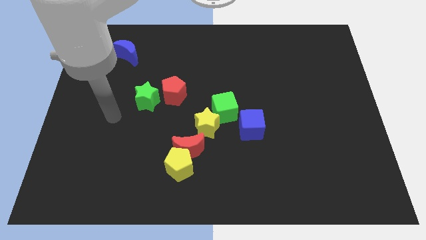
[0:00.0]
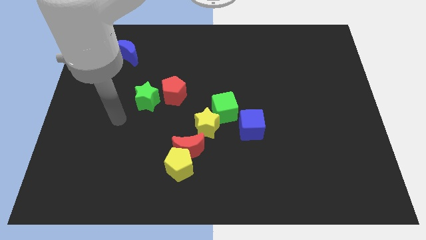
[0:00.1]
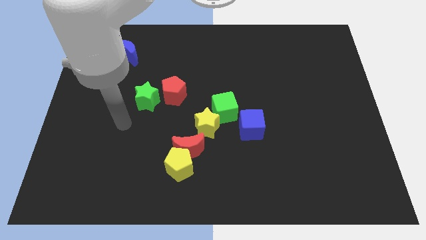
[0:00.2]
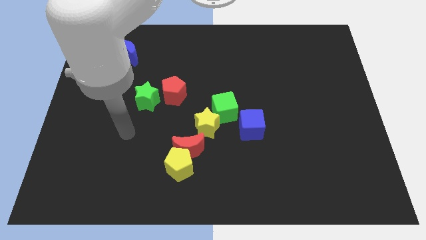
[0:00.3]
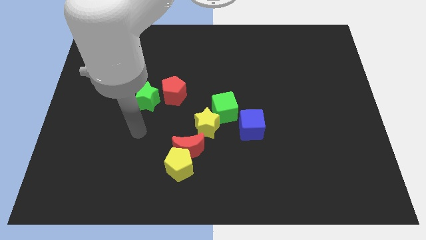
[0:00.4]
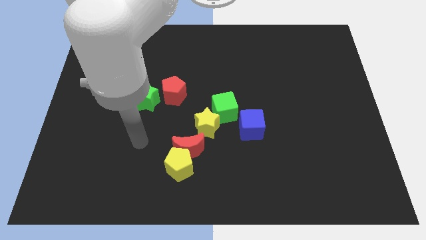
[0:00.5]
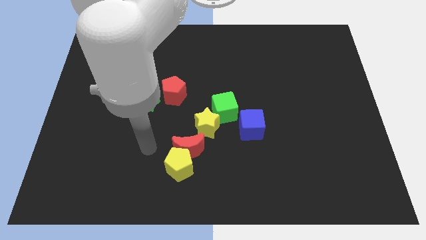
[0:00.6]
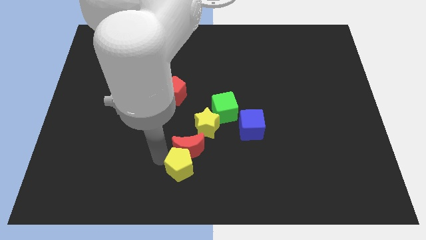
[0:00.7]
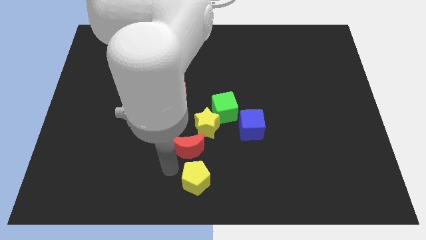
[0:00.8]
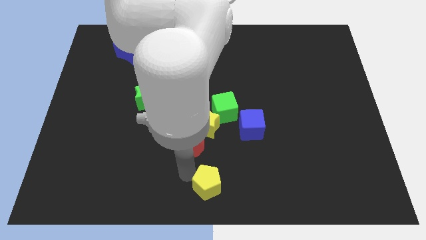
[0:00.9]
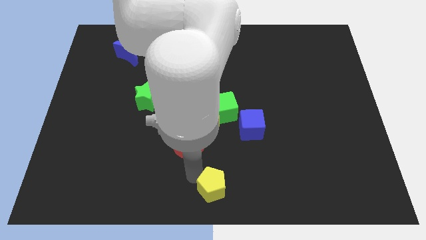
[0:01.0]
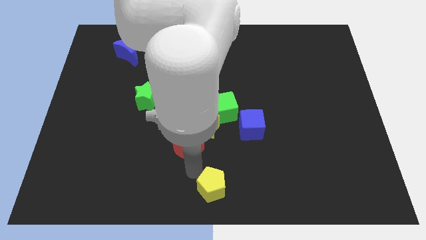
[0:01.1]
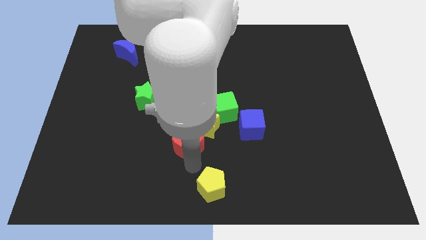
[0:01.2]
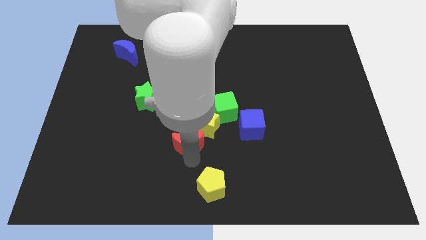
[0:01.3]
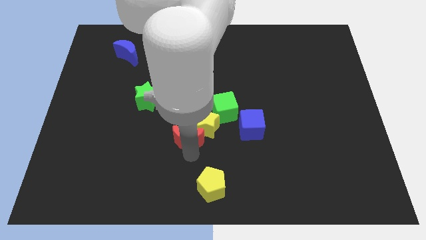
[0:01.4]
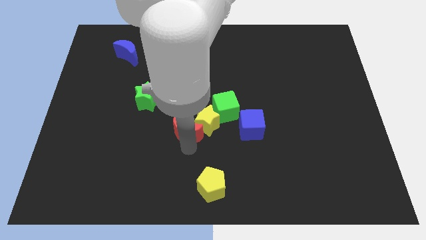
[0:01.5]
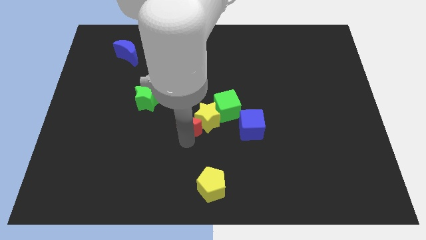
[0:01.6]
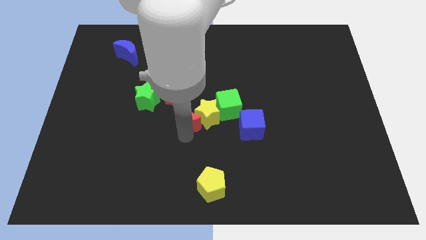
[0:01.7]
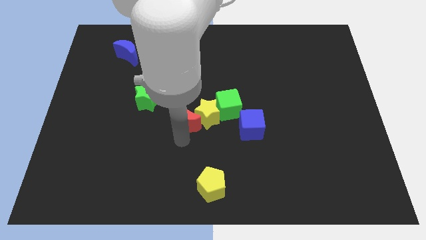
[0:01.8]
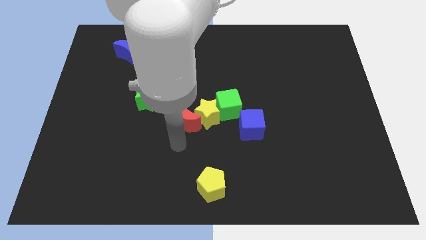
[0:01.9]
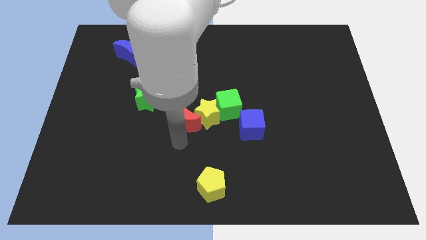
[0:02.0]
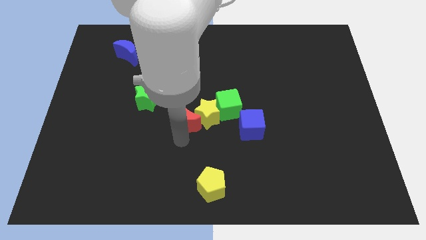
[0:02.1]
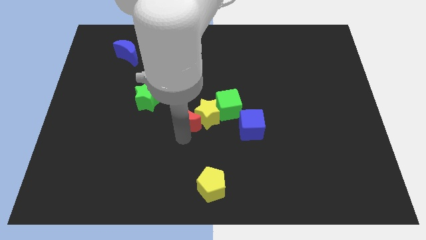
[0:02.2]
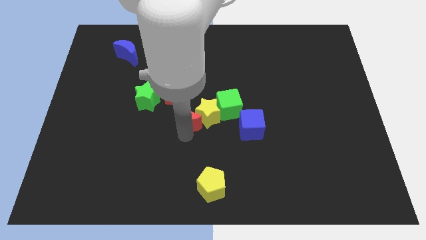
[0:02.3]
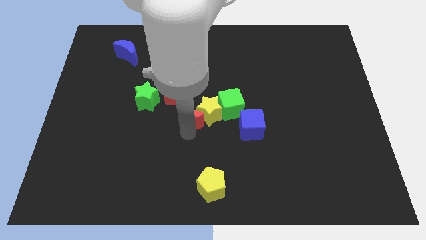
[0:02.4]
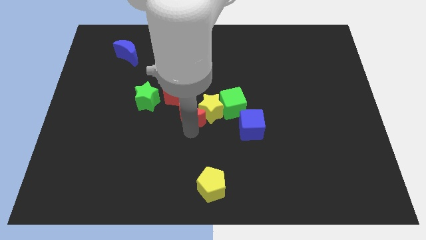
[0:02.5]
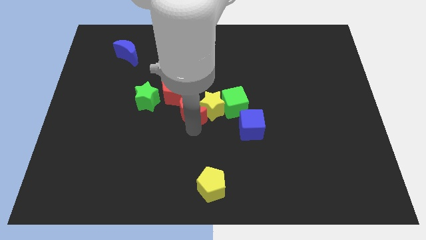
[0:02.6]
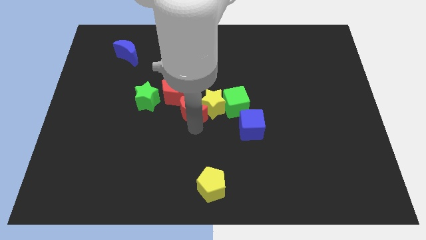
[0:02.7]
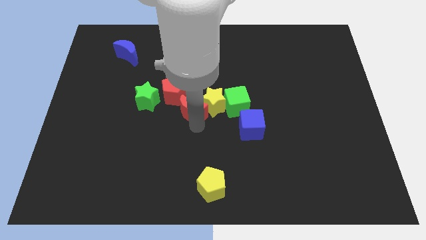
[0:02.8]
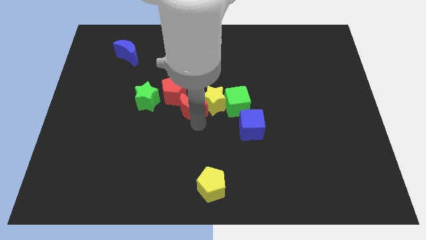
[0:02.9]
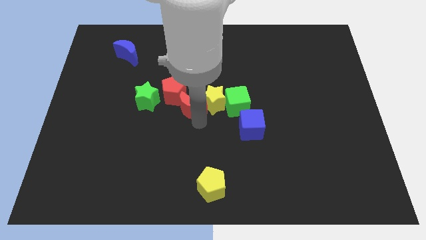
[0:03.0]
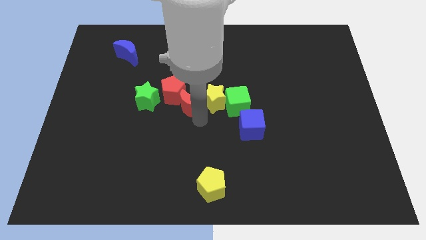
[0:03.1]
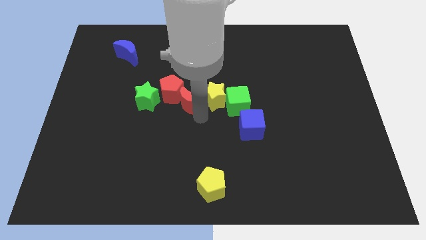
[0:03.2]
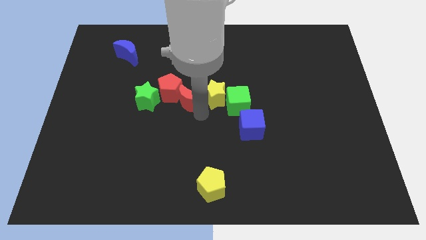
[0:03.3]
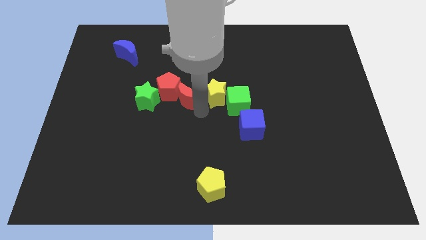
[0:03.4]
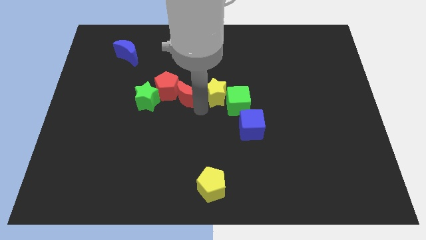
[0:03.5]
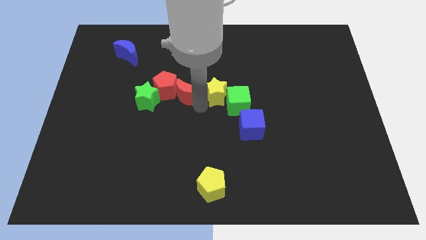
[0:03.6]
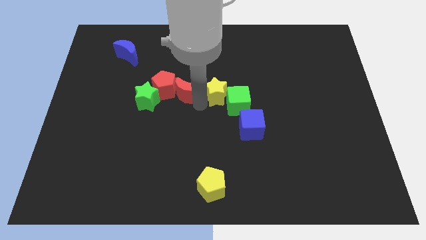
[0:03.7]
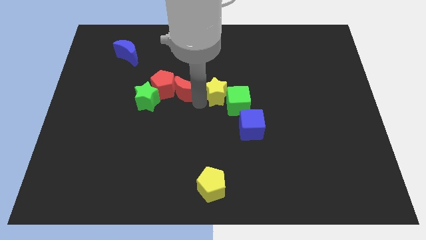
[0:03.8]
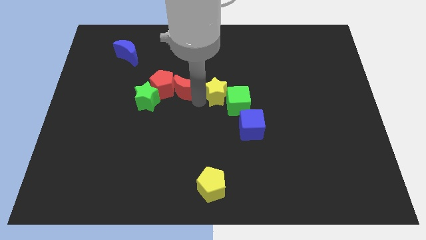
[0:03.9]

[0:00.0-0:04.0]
move the red moon diagonally up and to the right of the green star

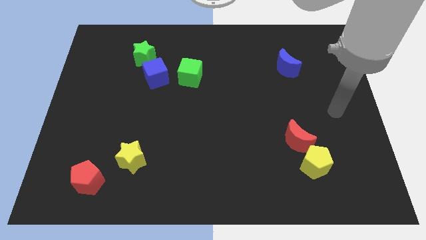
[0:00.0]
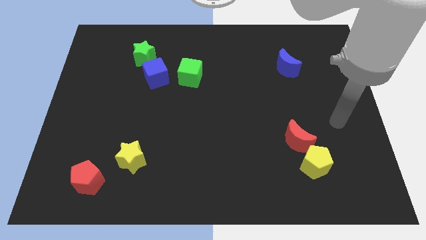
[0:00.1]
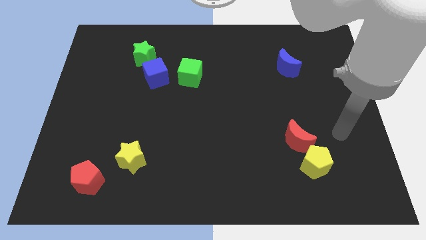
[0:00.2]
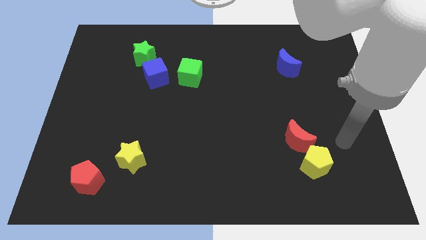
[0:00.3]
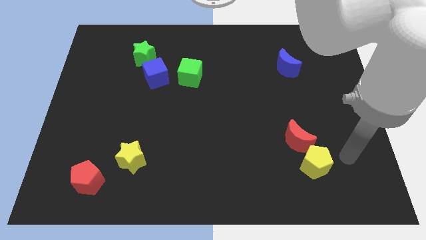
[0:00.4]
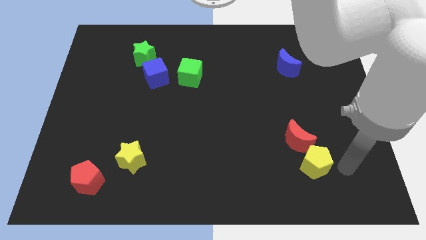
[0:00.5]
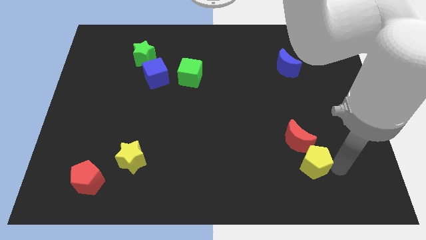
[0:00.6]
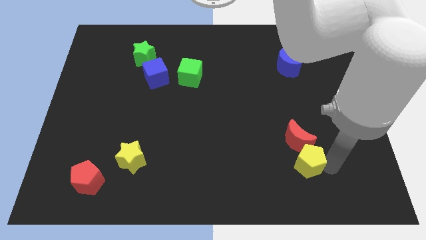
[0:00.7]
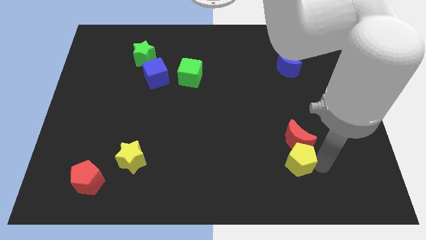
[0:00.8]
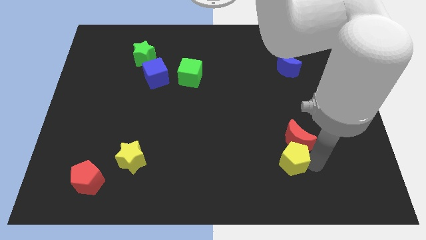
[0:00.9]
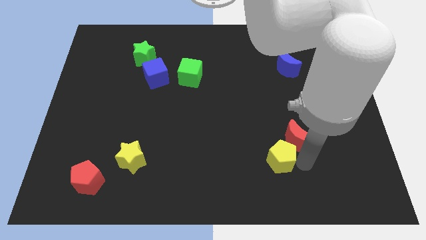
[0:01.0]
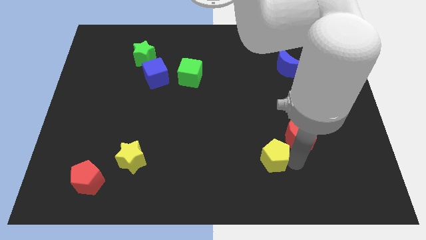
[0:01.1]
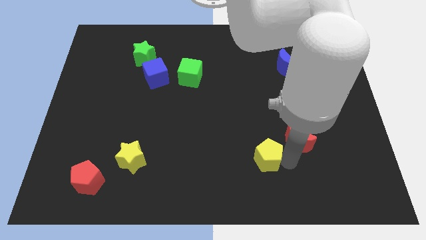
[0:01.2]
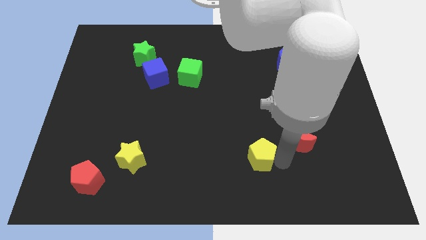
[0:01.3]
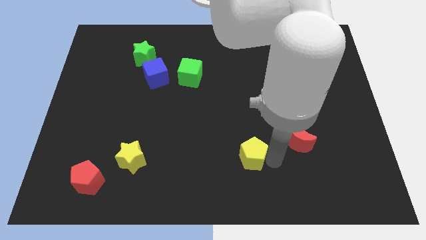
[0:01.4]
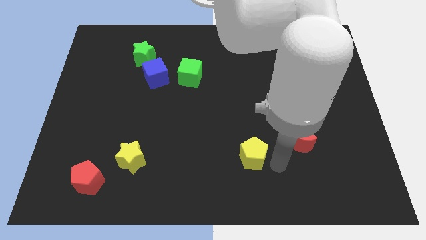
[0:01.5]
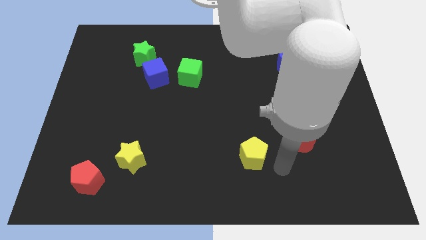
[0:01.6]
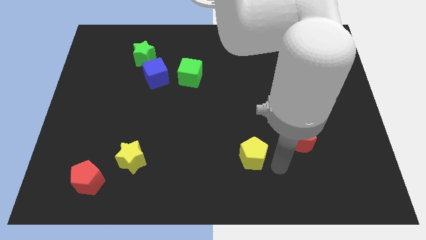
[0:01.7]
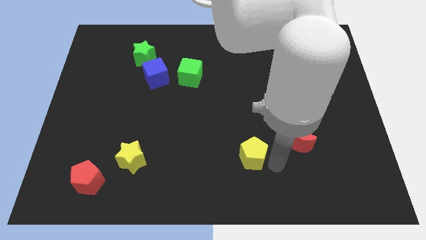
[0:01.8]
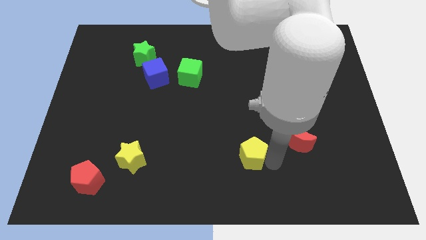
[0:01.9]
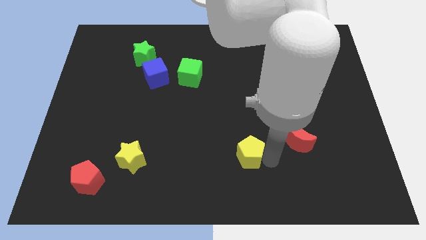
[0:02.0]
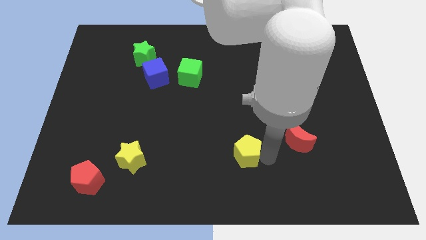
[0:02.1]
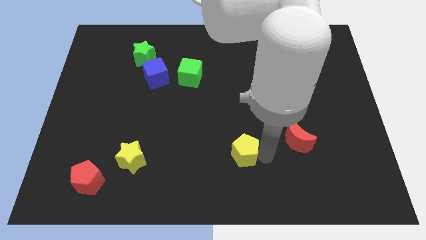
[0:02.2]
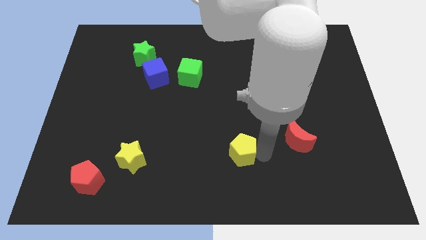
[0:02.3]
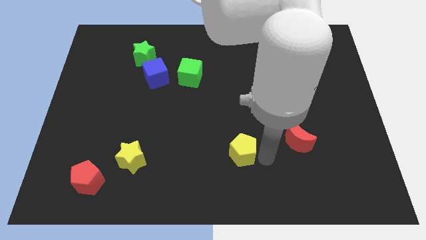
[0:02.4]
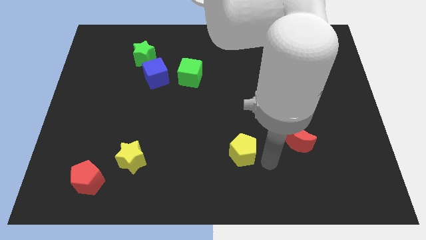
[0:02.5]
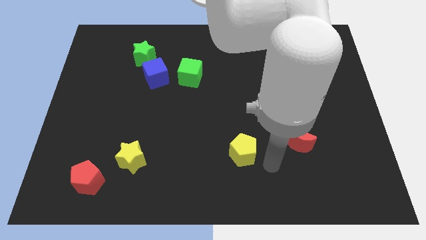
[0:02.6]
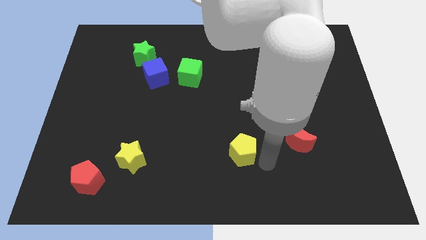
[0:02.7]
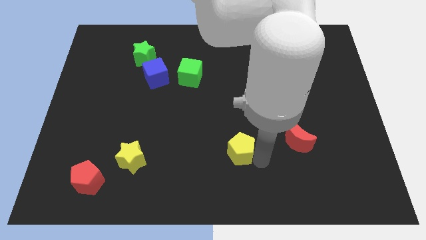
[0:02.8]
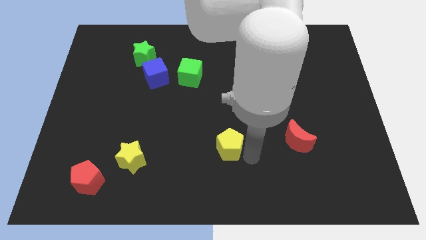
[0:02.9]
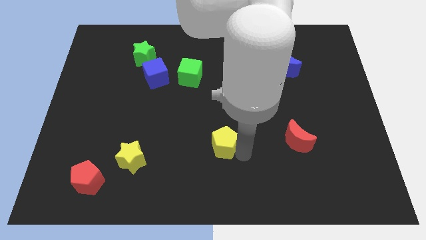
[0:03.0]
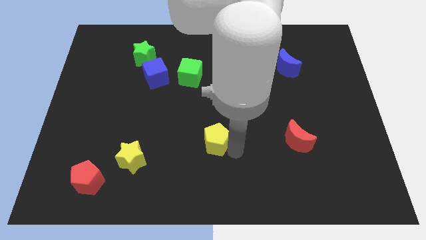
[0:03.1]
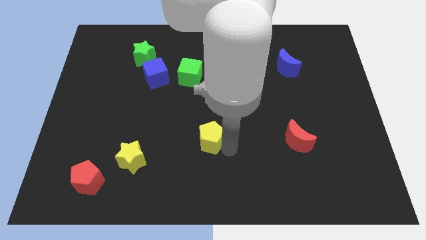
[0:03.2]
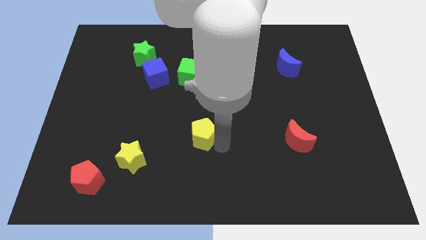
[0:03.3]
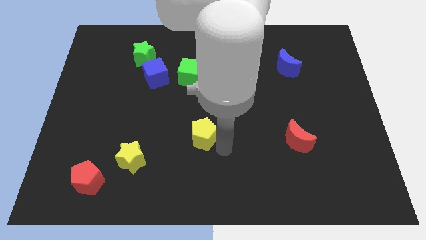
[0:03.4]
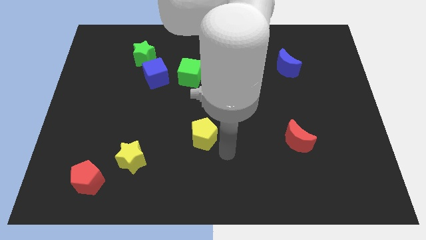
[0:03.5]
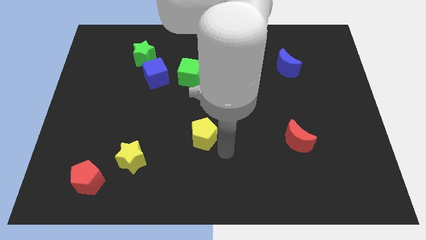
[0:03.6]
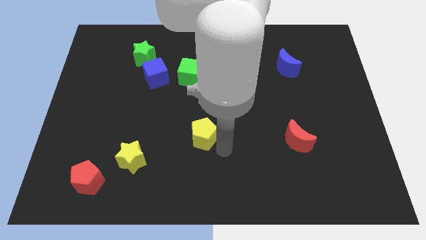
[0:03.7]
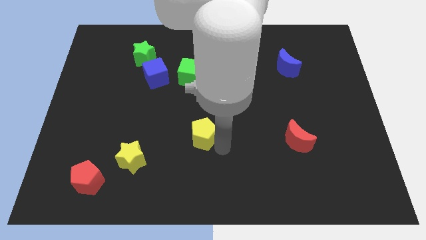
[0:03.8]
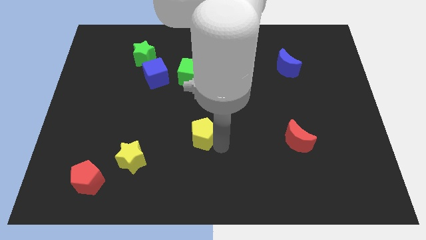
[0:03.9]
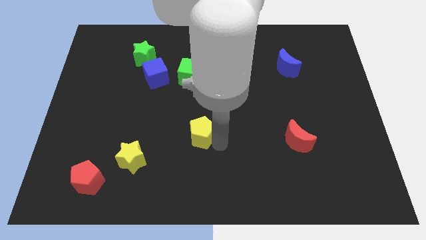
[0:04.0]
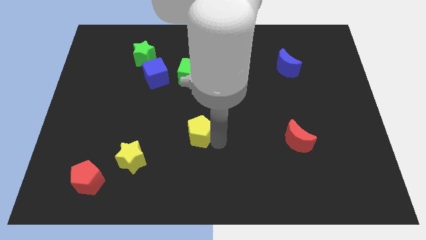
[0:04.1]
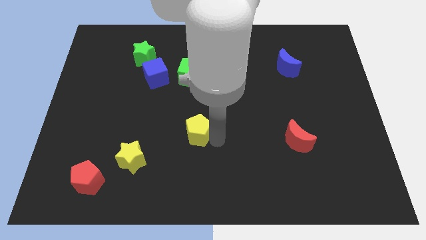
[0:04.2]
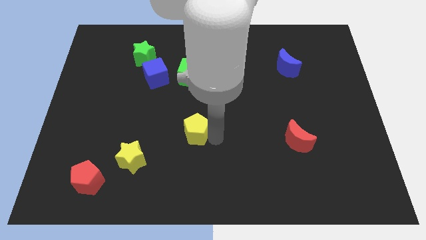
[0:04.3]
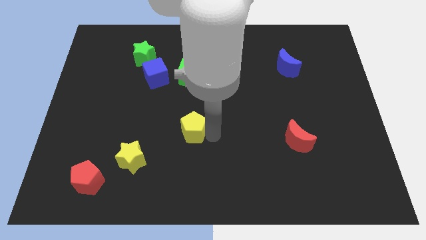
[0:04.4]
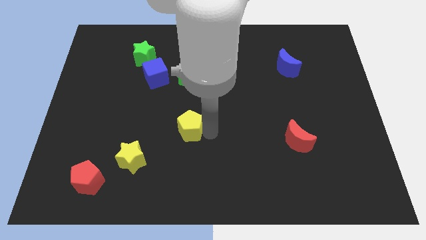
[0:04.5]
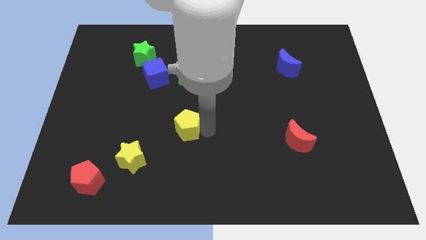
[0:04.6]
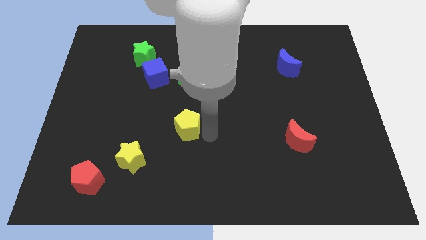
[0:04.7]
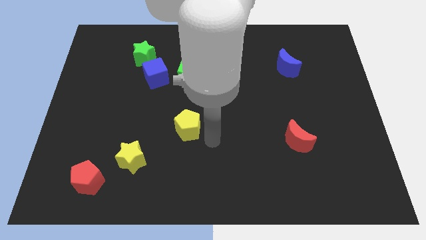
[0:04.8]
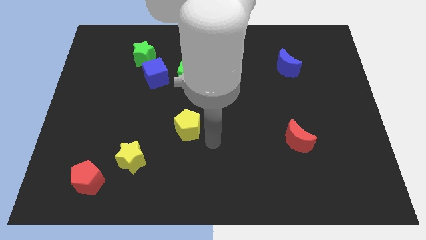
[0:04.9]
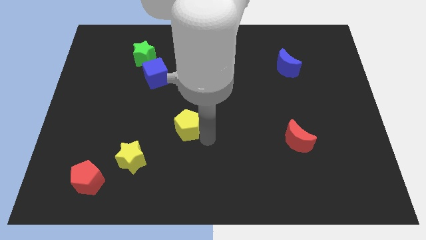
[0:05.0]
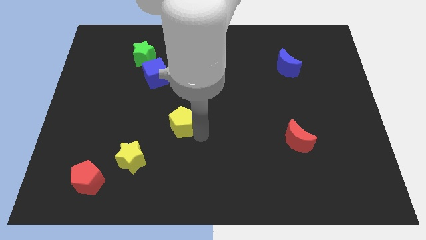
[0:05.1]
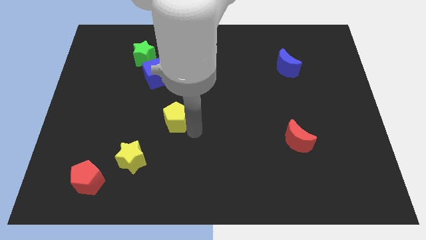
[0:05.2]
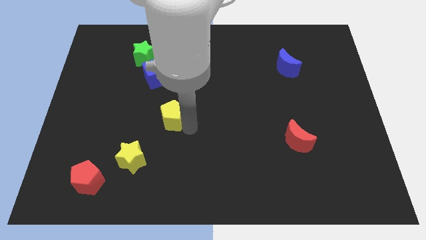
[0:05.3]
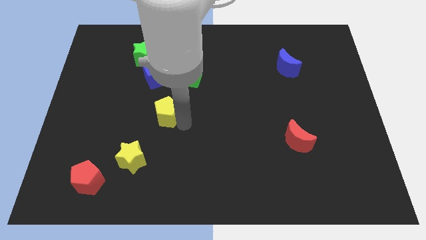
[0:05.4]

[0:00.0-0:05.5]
move the yellow pentagon to the bottom side of the blue cube
